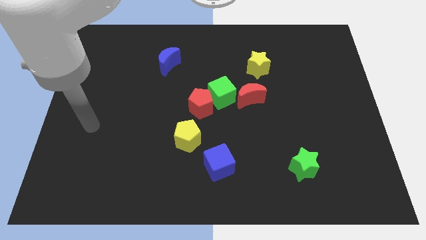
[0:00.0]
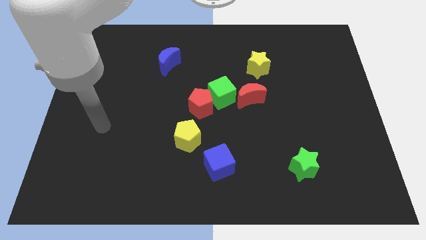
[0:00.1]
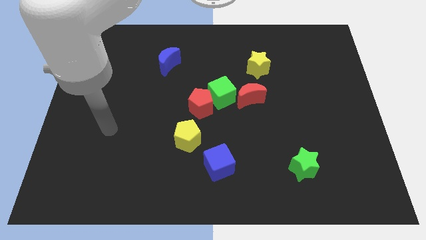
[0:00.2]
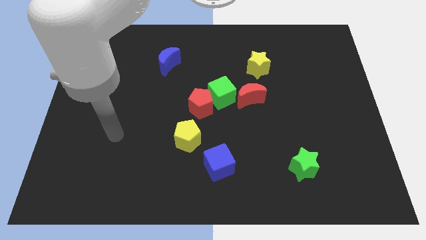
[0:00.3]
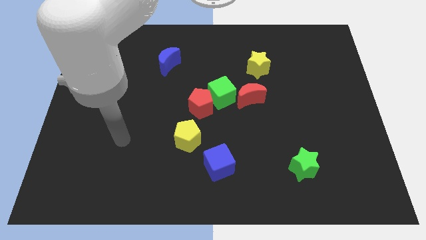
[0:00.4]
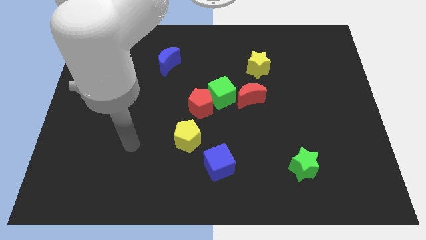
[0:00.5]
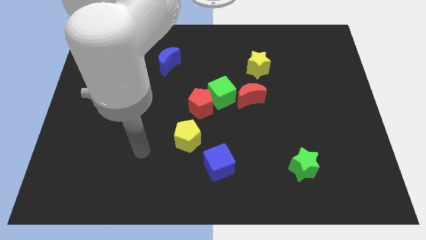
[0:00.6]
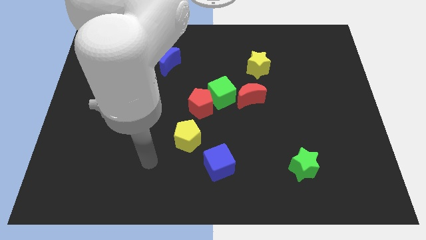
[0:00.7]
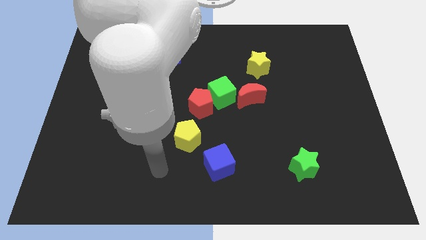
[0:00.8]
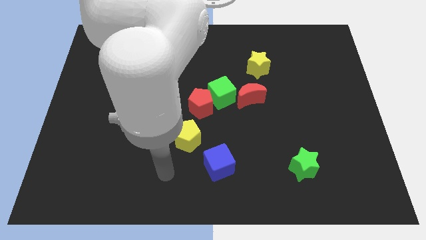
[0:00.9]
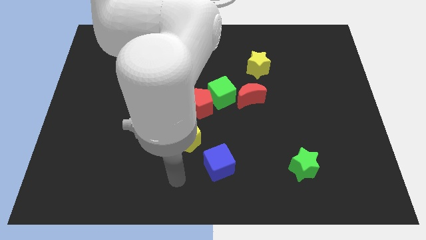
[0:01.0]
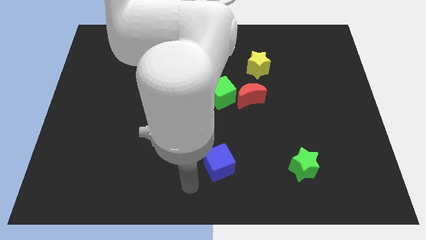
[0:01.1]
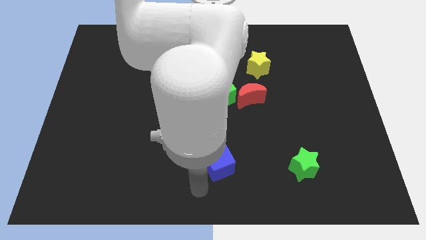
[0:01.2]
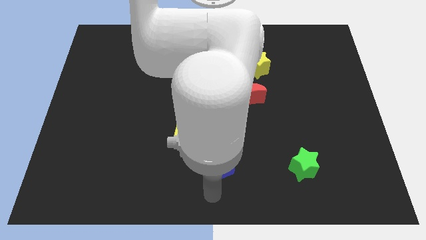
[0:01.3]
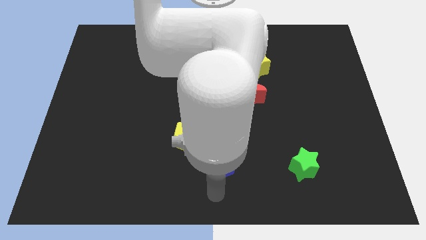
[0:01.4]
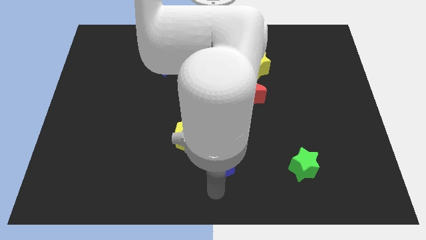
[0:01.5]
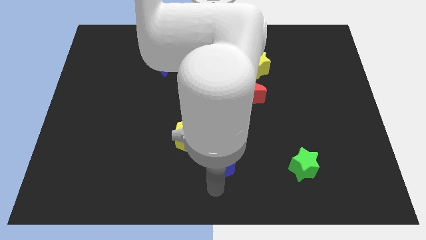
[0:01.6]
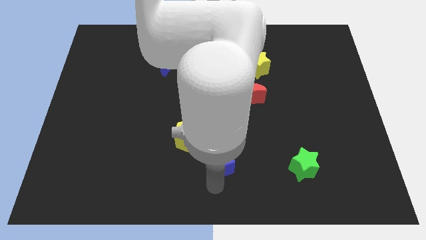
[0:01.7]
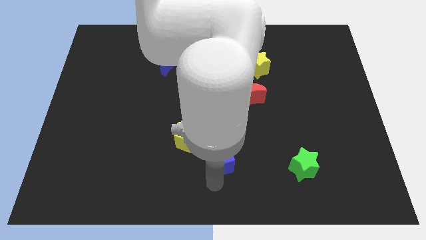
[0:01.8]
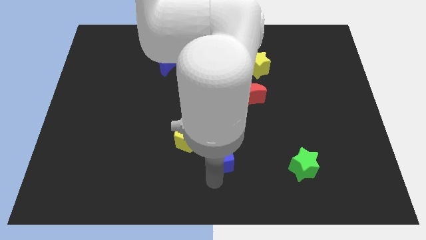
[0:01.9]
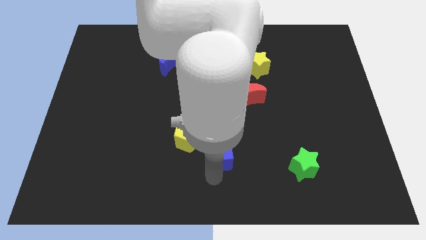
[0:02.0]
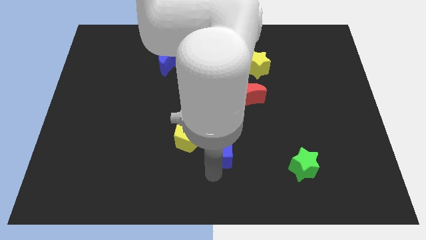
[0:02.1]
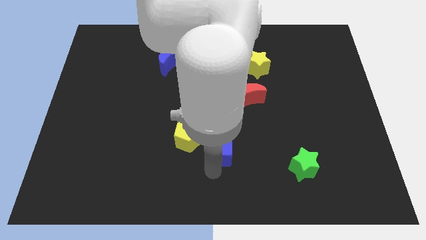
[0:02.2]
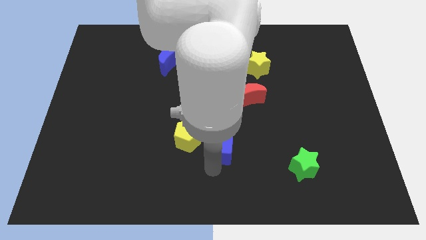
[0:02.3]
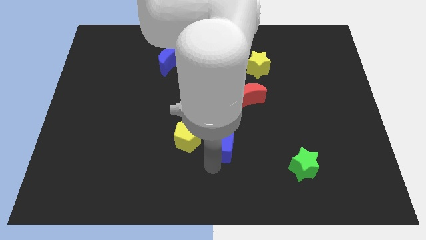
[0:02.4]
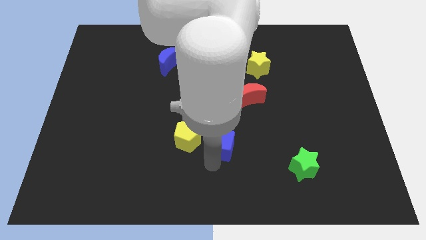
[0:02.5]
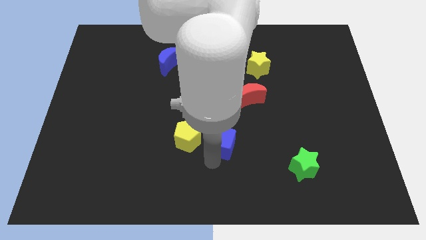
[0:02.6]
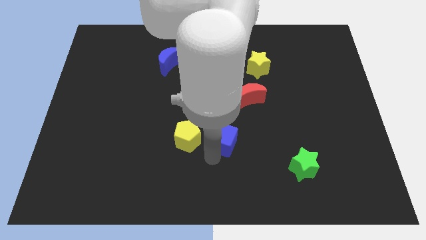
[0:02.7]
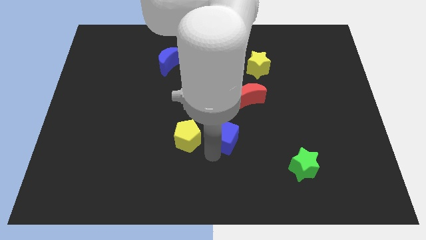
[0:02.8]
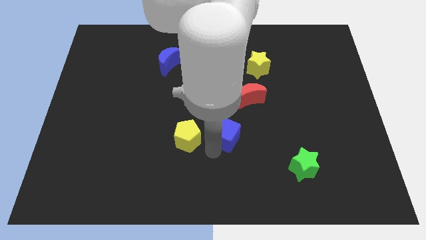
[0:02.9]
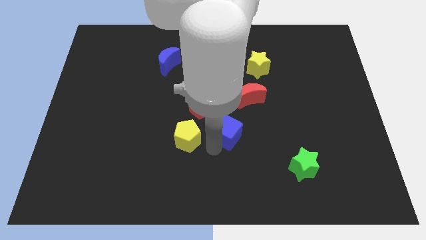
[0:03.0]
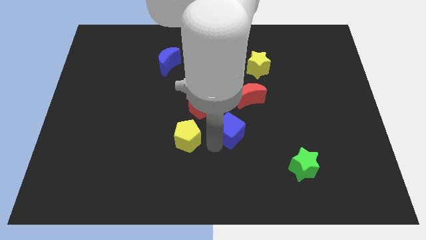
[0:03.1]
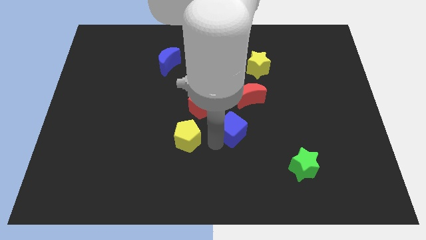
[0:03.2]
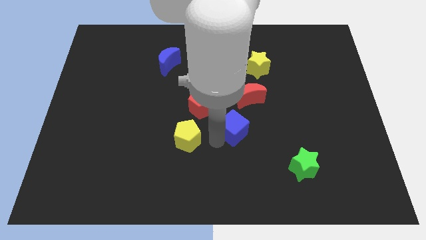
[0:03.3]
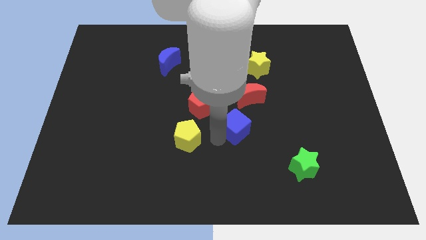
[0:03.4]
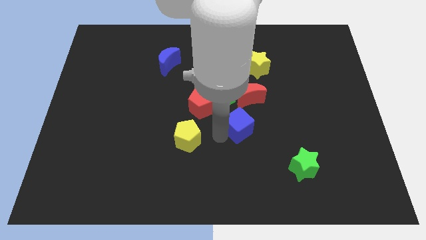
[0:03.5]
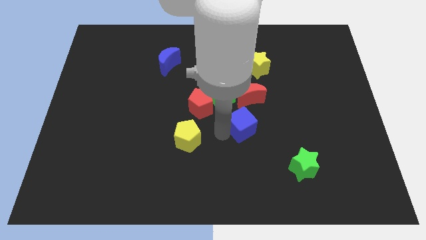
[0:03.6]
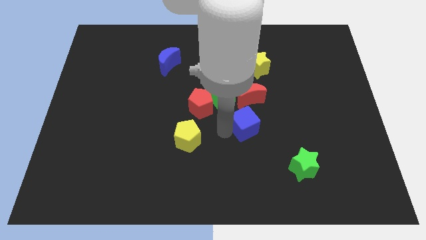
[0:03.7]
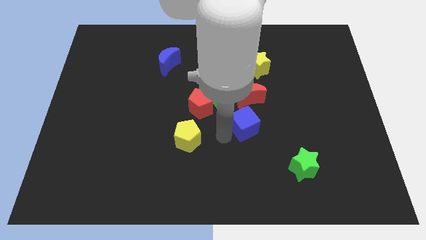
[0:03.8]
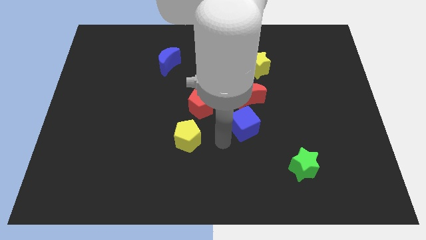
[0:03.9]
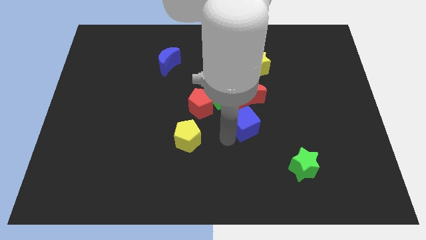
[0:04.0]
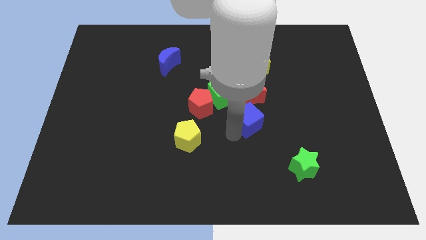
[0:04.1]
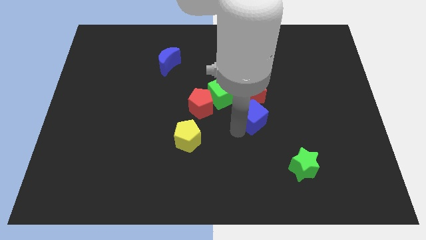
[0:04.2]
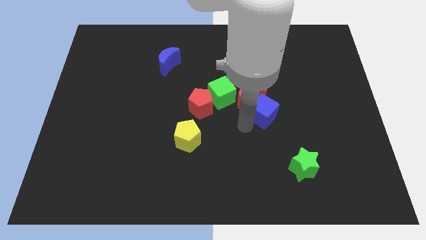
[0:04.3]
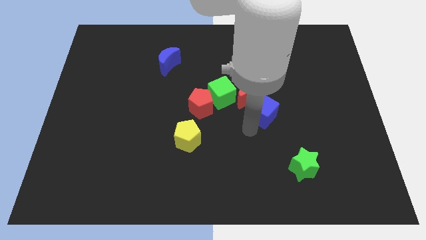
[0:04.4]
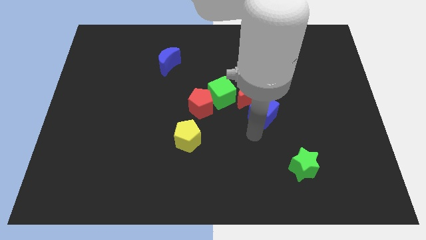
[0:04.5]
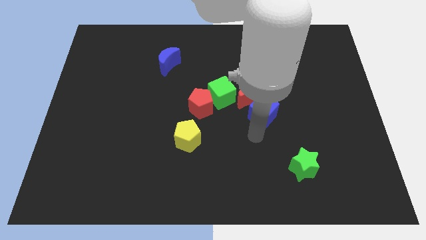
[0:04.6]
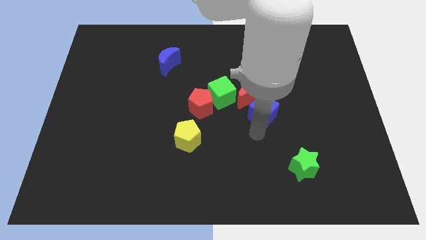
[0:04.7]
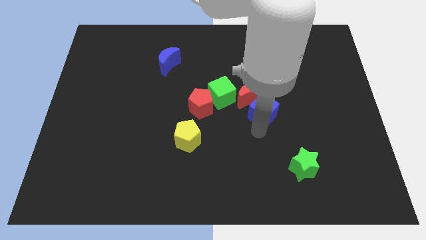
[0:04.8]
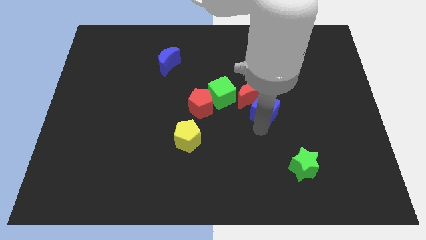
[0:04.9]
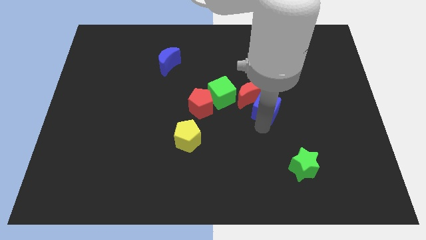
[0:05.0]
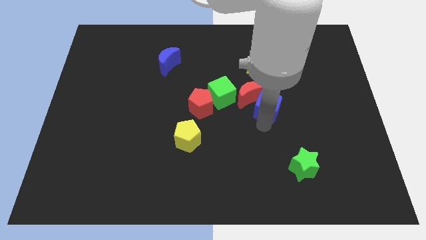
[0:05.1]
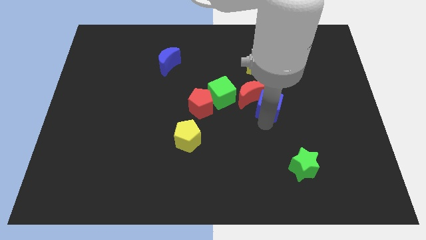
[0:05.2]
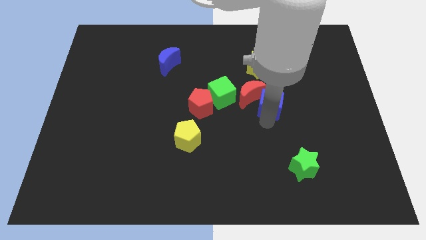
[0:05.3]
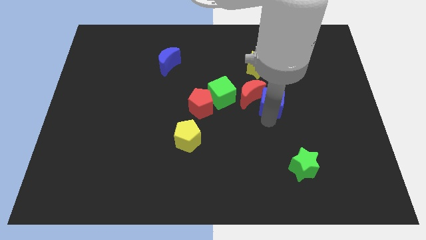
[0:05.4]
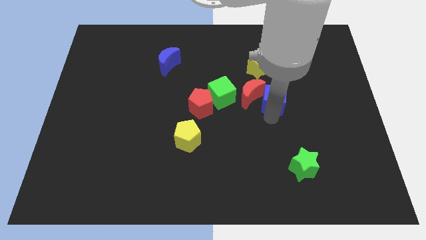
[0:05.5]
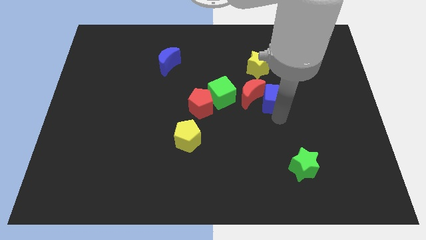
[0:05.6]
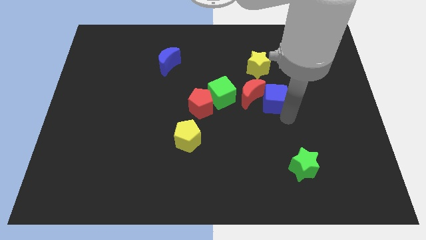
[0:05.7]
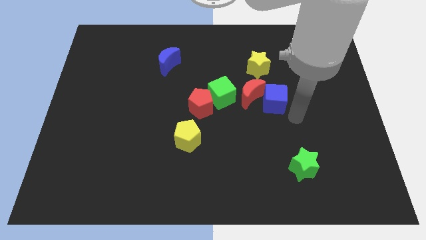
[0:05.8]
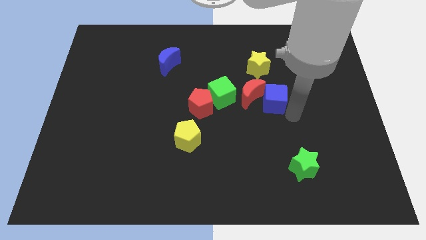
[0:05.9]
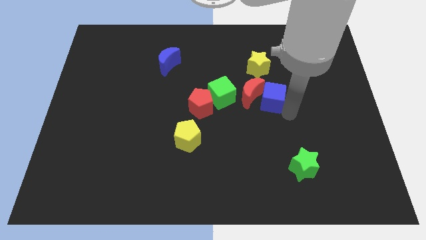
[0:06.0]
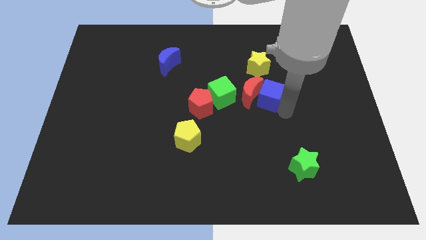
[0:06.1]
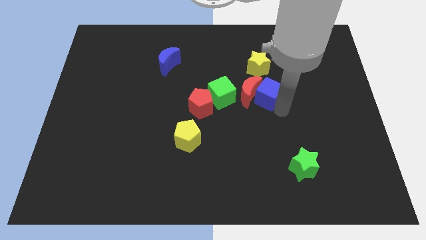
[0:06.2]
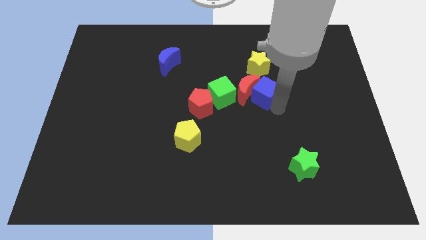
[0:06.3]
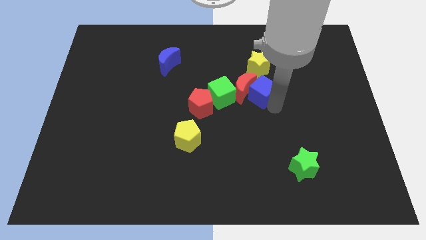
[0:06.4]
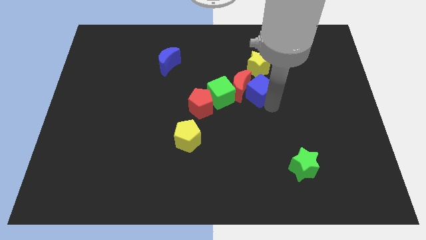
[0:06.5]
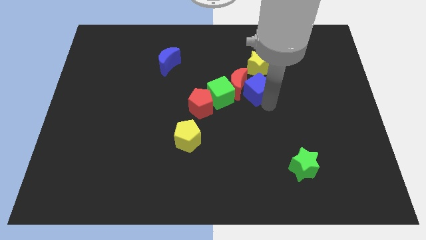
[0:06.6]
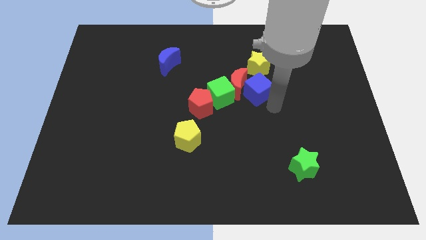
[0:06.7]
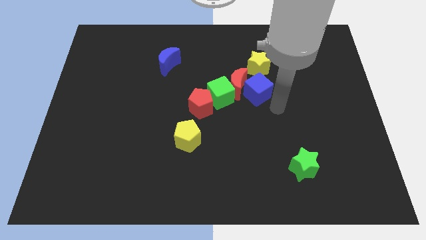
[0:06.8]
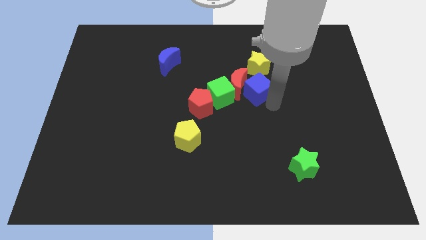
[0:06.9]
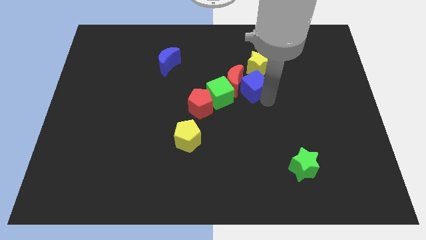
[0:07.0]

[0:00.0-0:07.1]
push the blue cube to the top right of the green cube

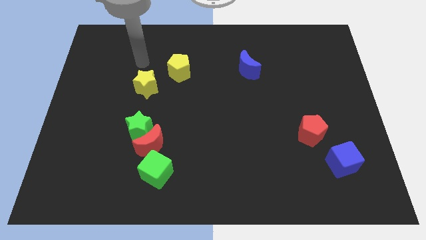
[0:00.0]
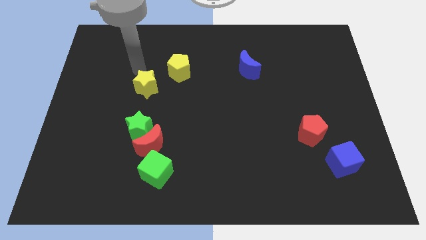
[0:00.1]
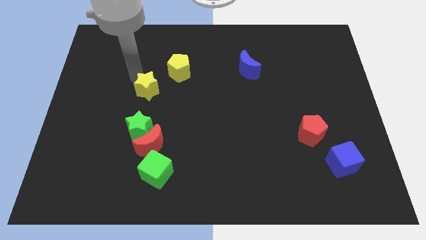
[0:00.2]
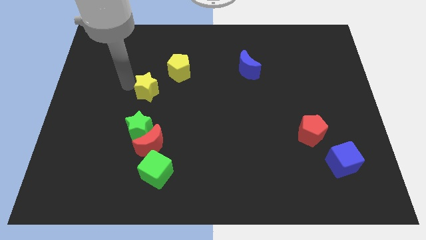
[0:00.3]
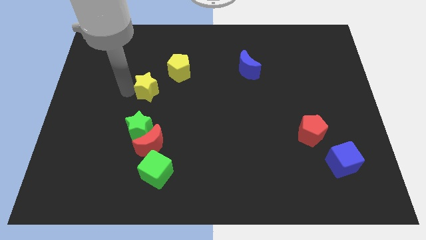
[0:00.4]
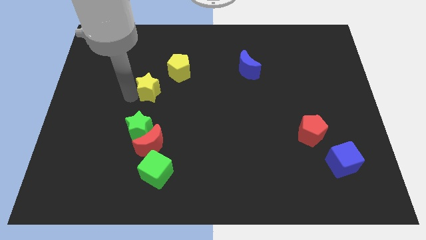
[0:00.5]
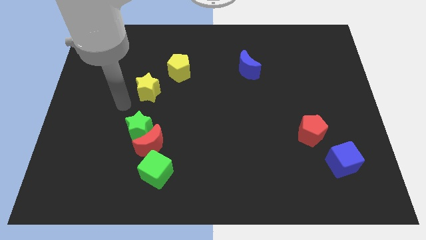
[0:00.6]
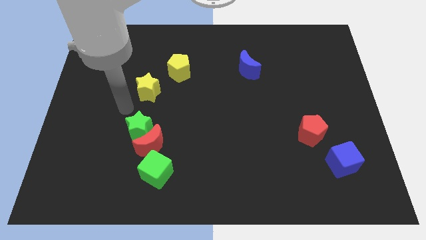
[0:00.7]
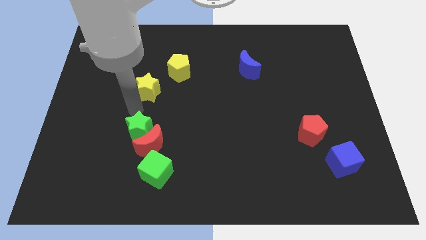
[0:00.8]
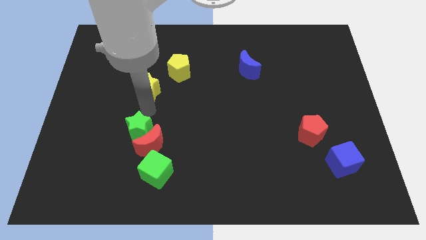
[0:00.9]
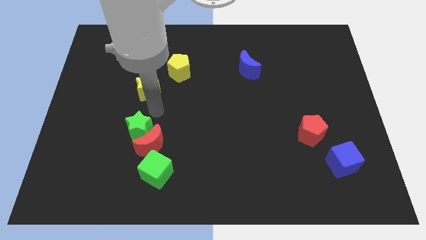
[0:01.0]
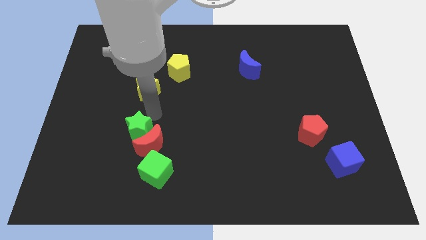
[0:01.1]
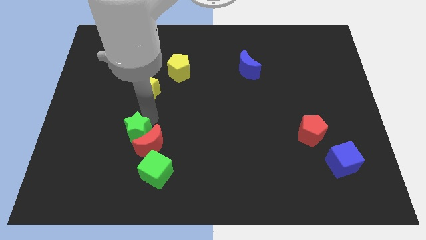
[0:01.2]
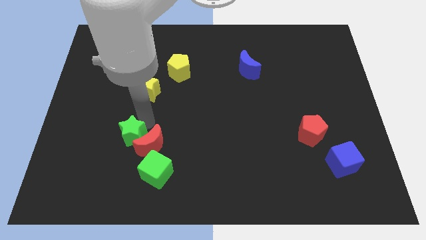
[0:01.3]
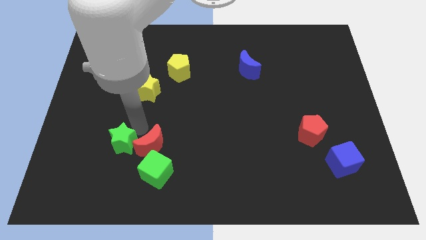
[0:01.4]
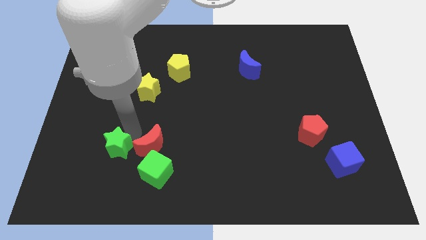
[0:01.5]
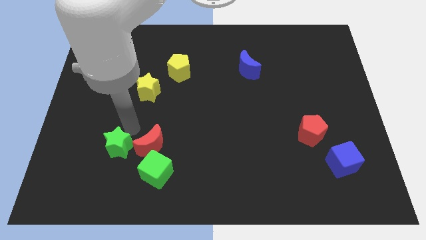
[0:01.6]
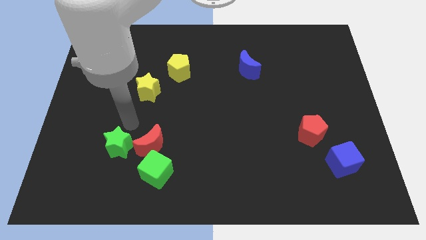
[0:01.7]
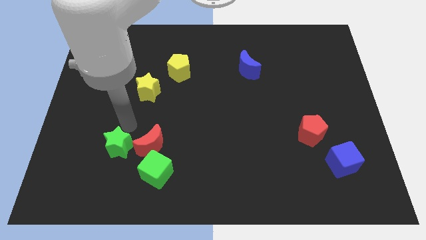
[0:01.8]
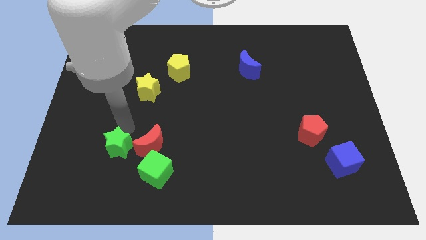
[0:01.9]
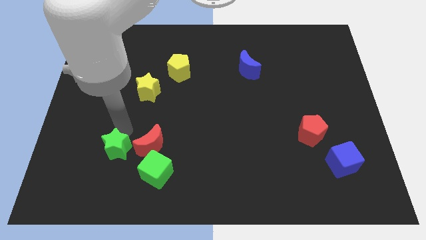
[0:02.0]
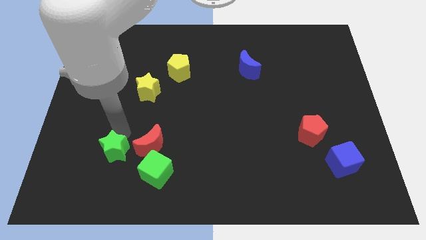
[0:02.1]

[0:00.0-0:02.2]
push the green star just left of the green cube
